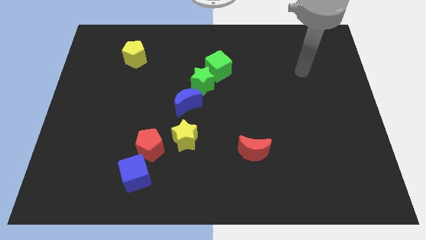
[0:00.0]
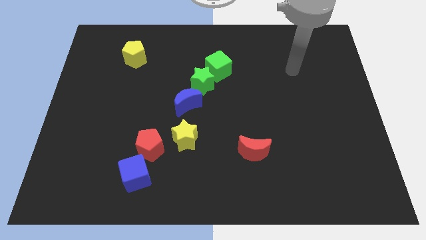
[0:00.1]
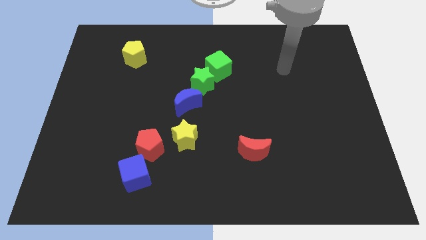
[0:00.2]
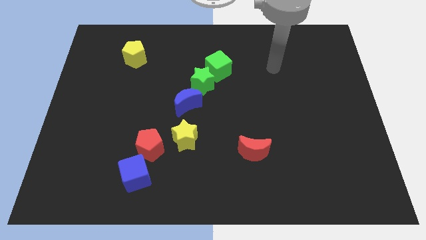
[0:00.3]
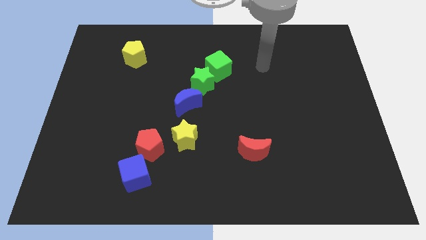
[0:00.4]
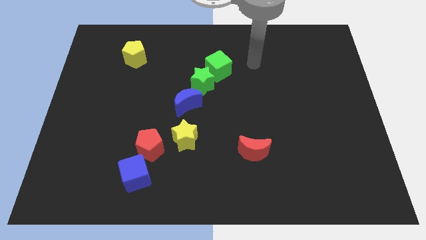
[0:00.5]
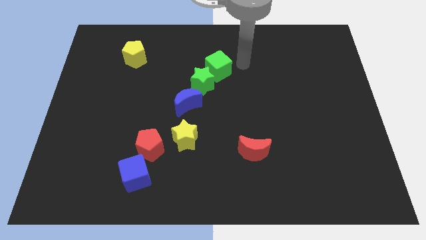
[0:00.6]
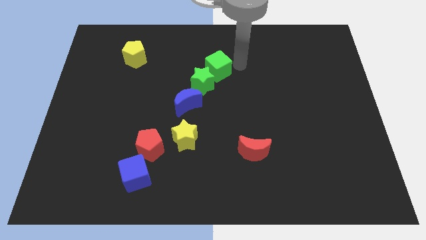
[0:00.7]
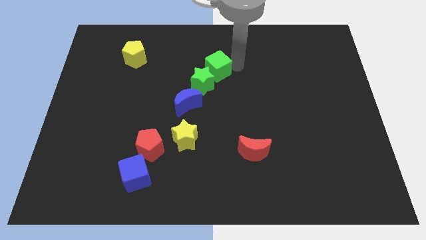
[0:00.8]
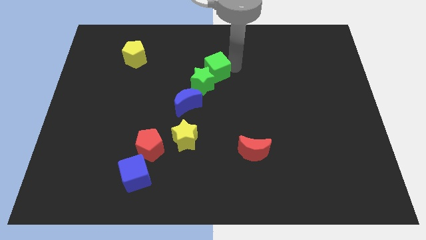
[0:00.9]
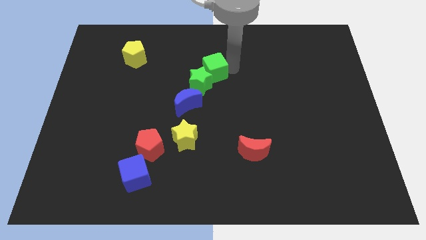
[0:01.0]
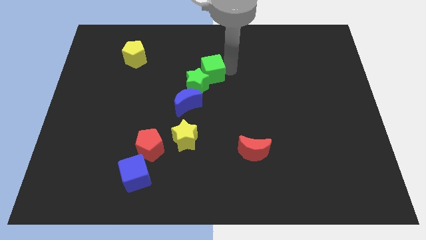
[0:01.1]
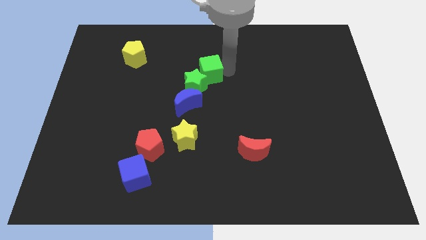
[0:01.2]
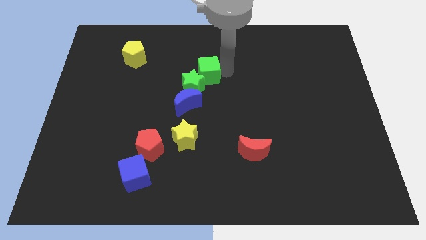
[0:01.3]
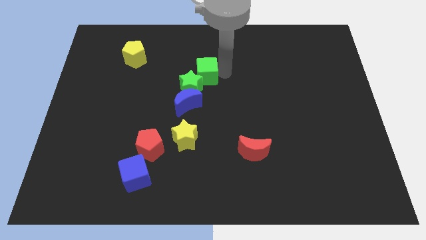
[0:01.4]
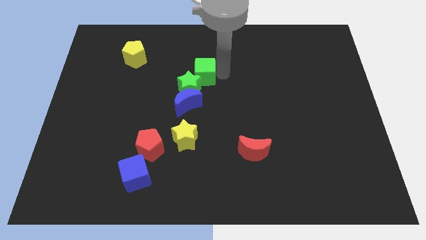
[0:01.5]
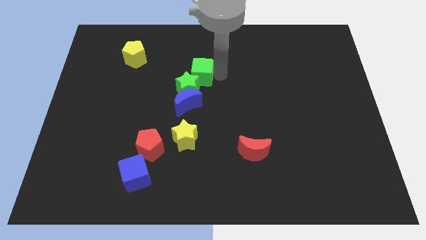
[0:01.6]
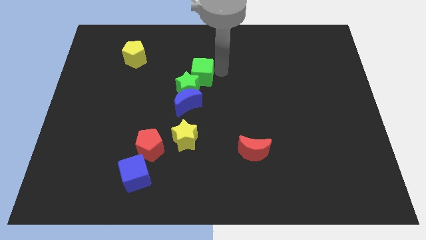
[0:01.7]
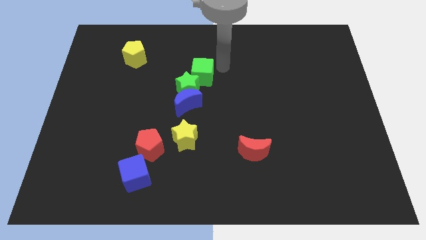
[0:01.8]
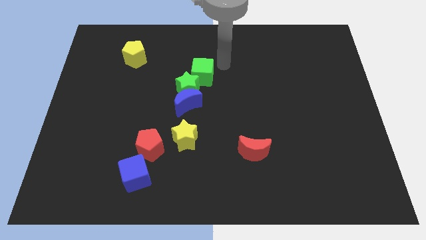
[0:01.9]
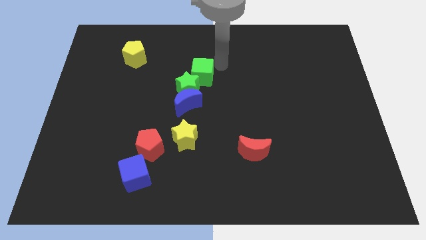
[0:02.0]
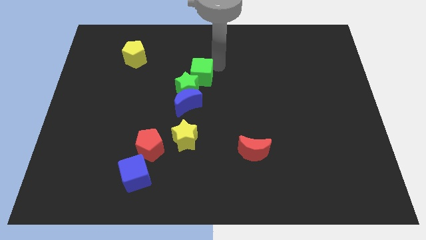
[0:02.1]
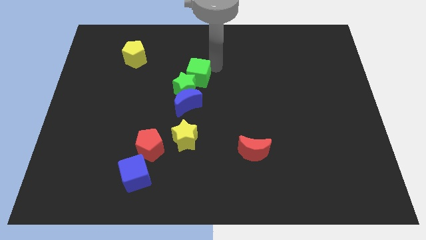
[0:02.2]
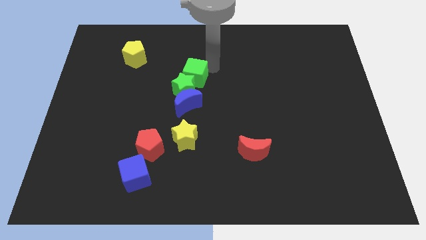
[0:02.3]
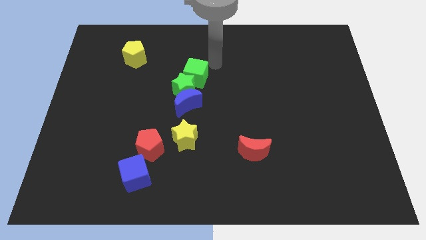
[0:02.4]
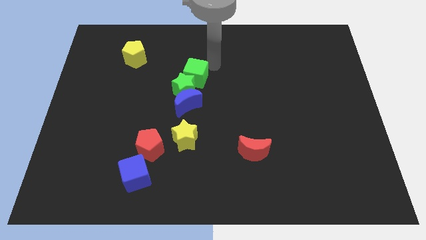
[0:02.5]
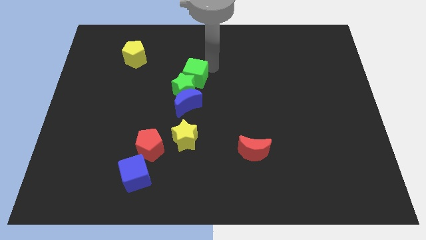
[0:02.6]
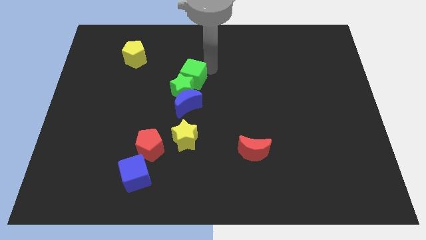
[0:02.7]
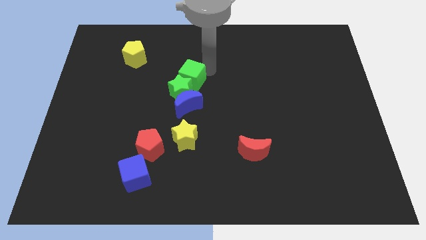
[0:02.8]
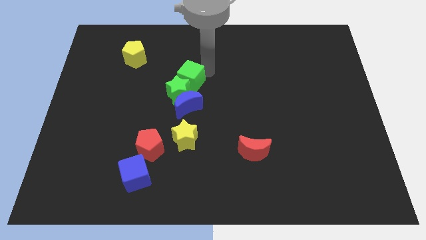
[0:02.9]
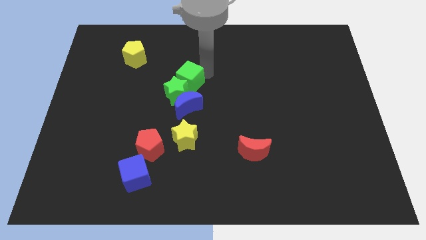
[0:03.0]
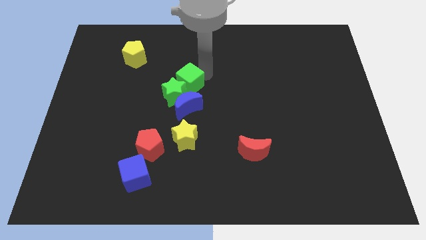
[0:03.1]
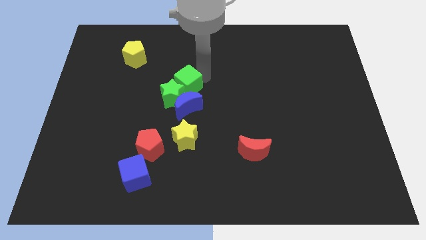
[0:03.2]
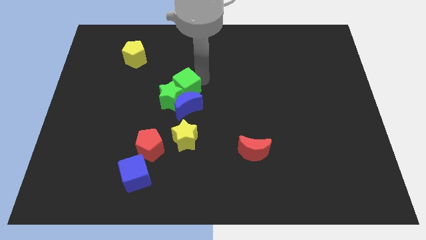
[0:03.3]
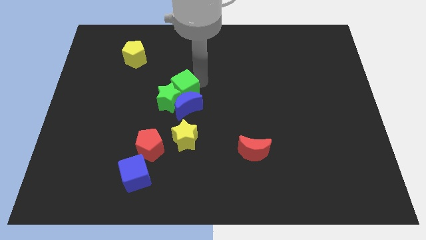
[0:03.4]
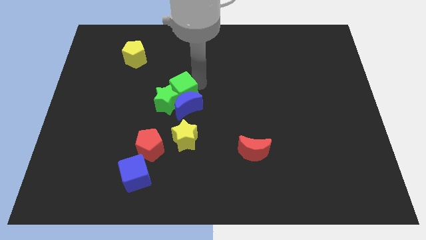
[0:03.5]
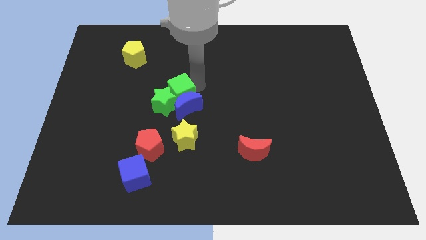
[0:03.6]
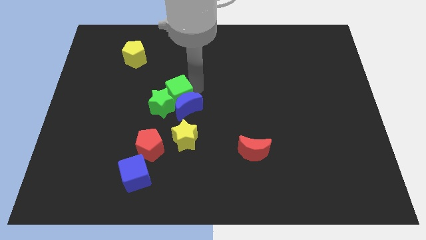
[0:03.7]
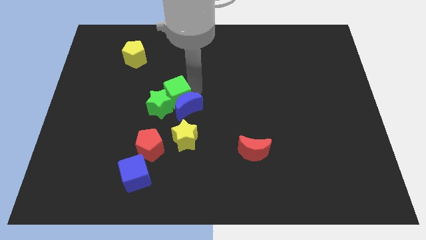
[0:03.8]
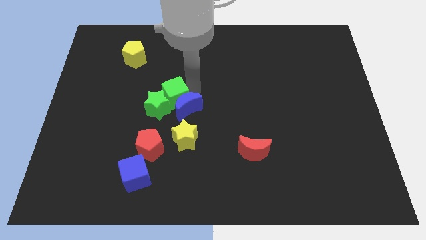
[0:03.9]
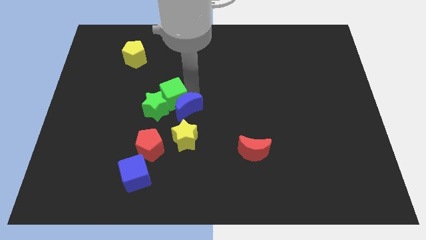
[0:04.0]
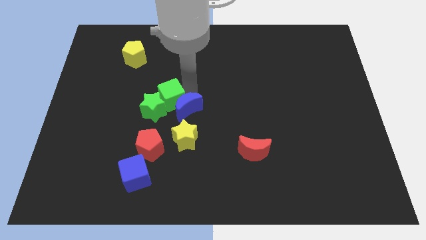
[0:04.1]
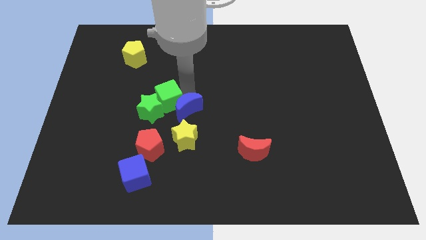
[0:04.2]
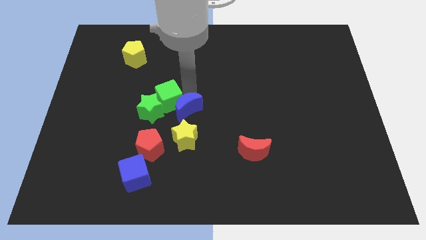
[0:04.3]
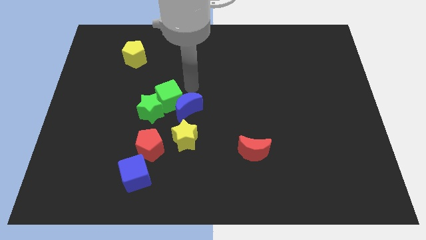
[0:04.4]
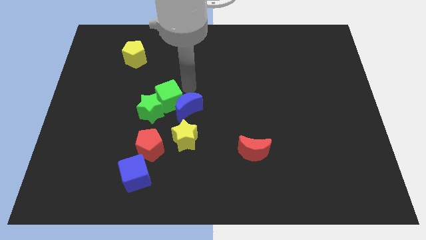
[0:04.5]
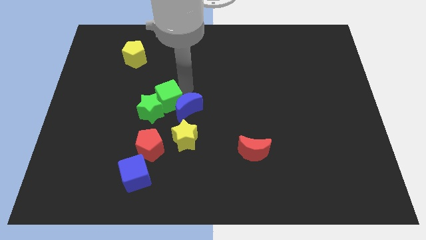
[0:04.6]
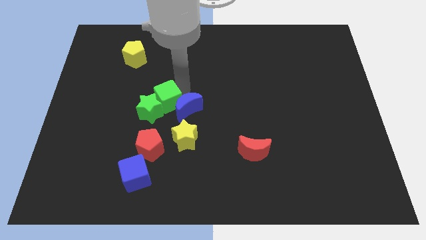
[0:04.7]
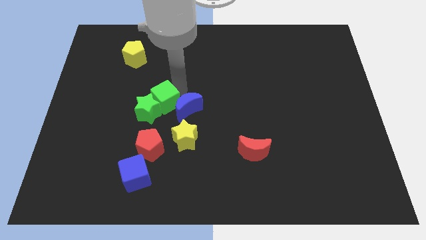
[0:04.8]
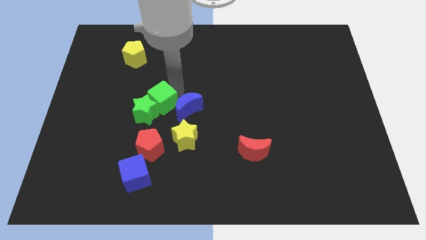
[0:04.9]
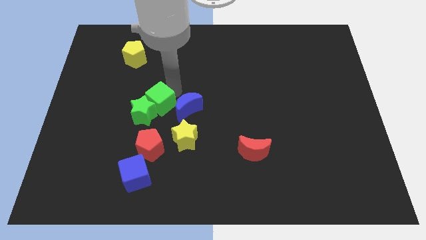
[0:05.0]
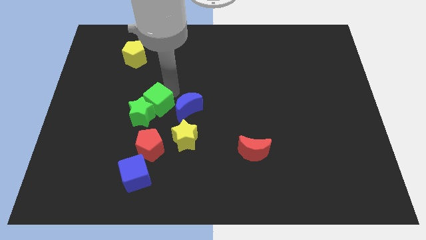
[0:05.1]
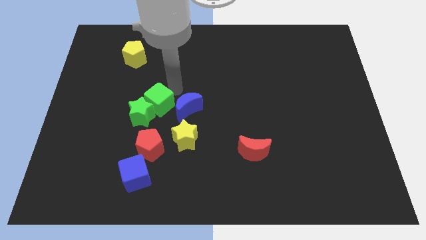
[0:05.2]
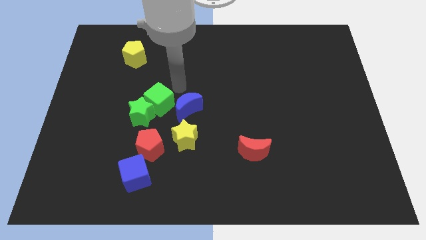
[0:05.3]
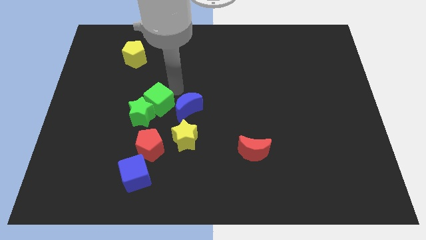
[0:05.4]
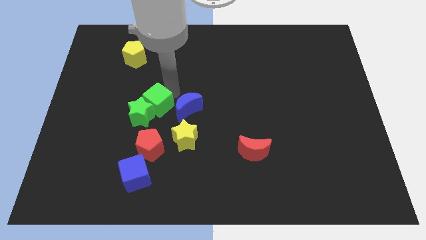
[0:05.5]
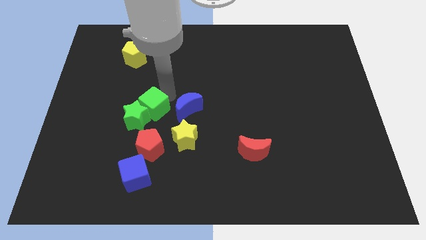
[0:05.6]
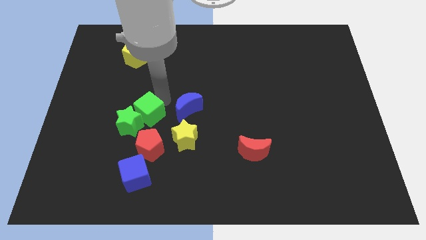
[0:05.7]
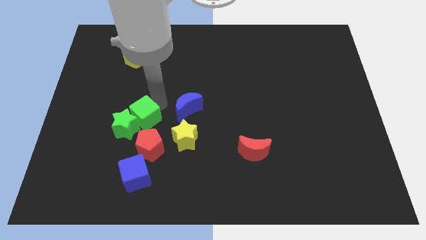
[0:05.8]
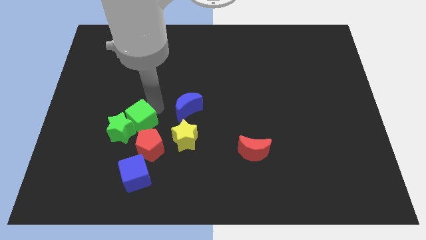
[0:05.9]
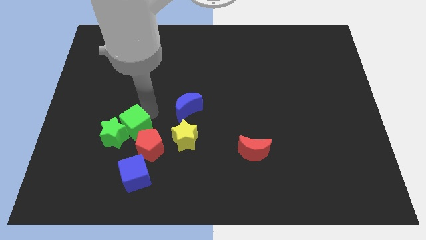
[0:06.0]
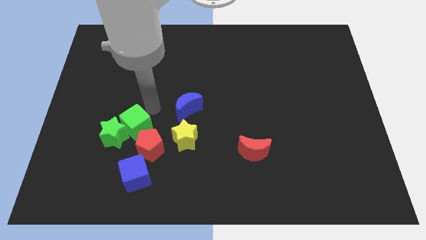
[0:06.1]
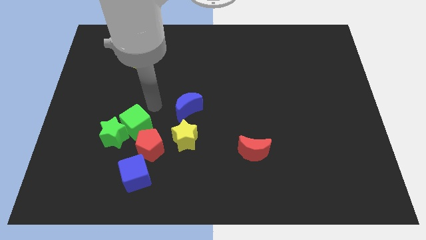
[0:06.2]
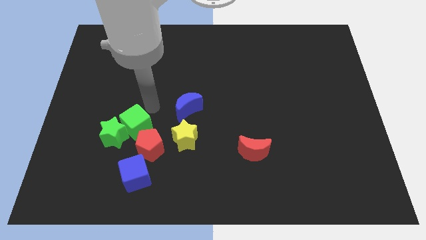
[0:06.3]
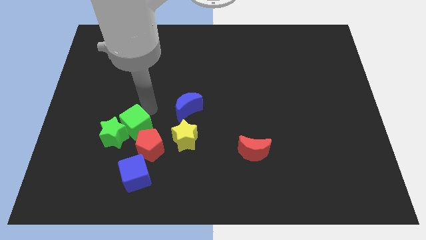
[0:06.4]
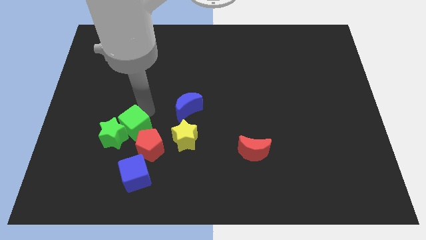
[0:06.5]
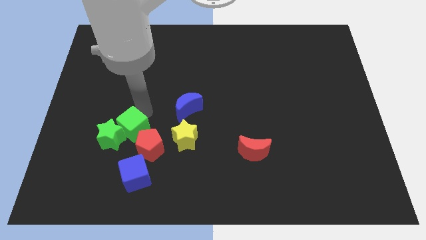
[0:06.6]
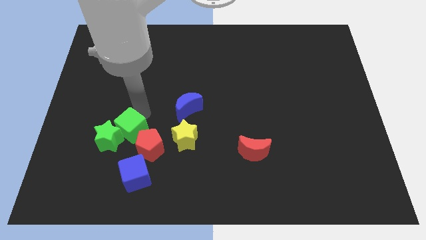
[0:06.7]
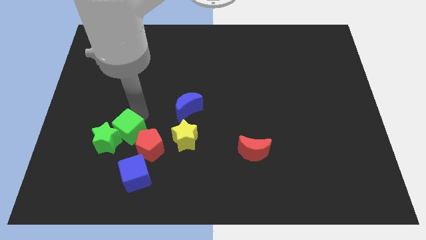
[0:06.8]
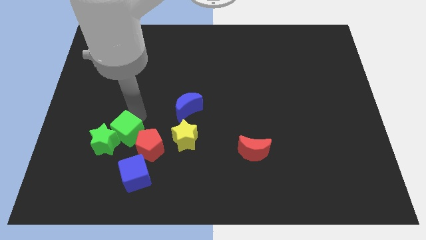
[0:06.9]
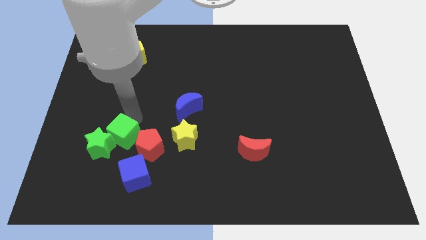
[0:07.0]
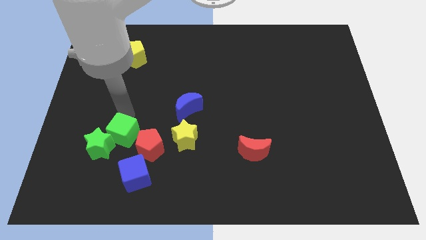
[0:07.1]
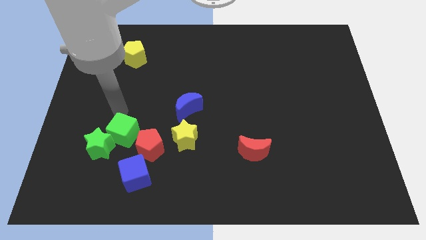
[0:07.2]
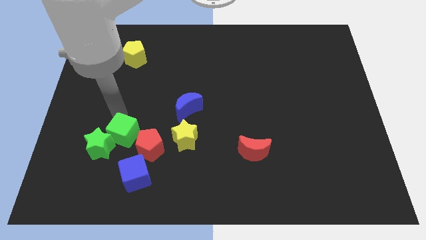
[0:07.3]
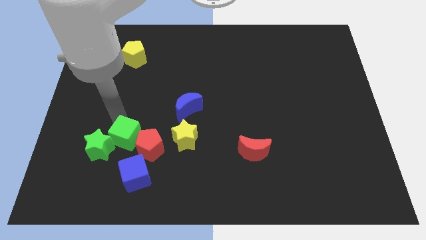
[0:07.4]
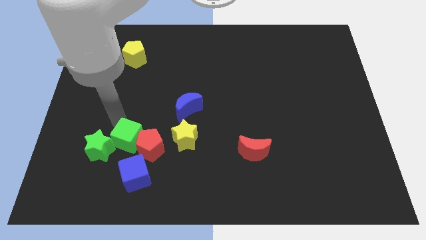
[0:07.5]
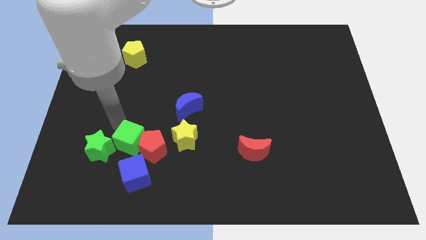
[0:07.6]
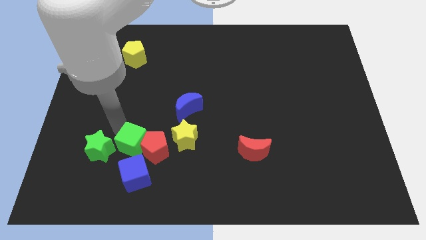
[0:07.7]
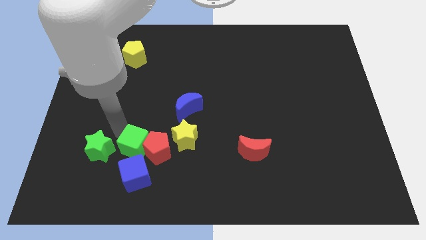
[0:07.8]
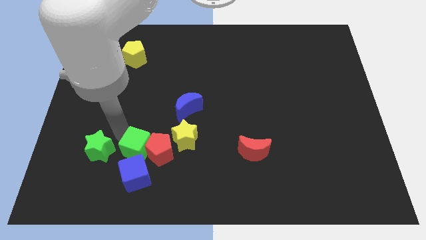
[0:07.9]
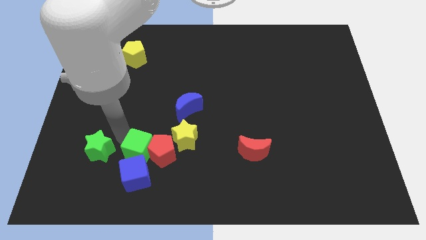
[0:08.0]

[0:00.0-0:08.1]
move the green cube towards the blue cube
